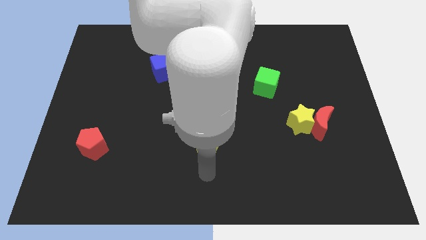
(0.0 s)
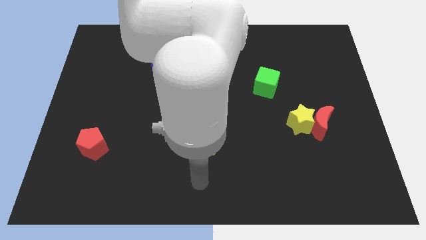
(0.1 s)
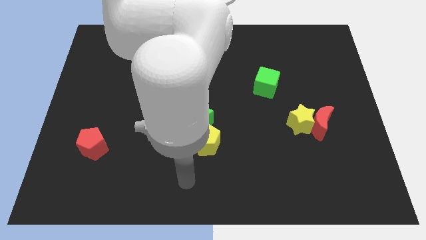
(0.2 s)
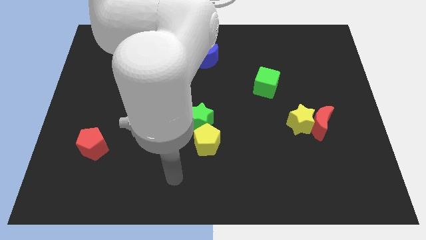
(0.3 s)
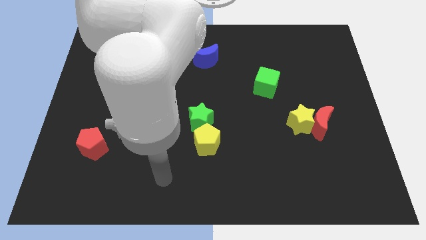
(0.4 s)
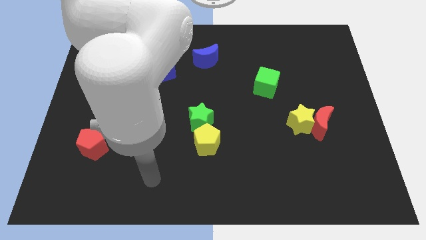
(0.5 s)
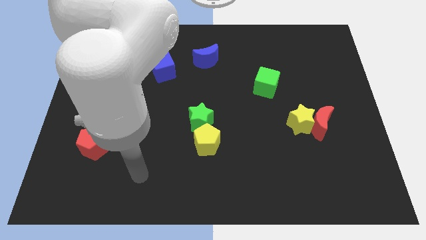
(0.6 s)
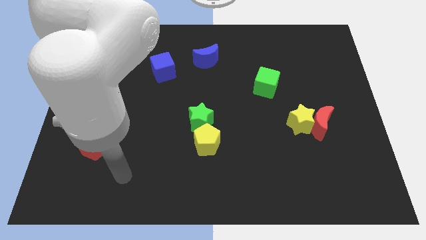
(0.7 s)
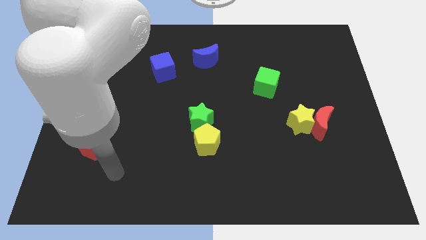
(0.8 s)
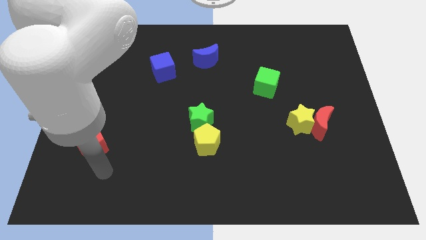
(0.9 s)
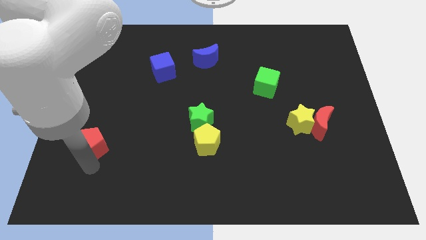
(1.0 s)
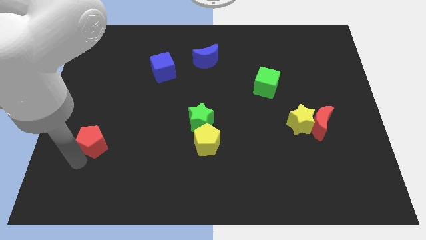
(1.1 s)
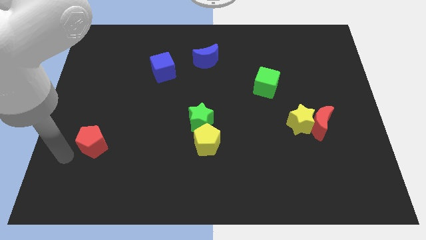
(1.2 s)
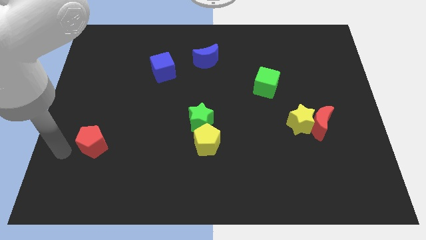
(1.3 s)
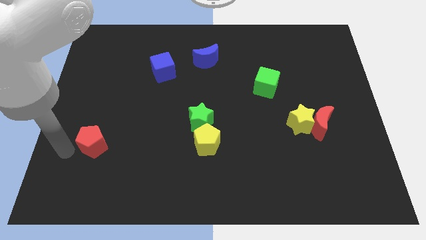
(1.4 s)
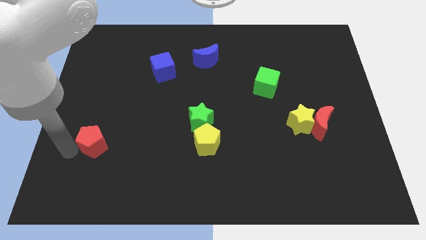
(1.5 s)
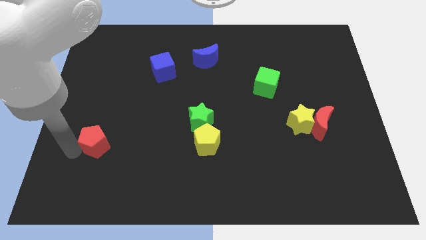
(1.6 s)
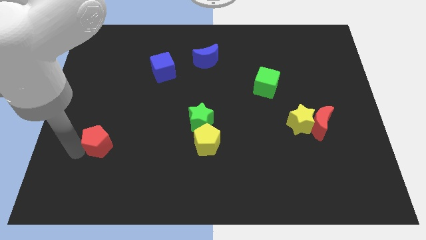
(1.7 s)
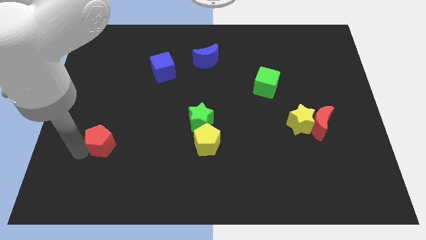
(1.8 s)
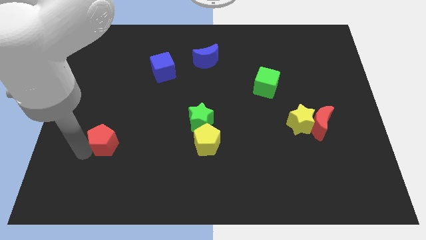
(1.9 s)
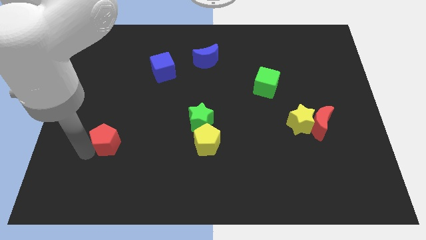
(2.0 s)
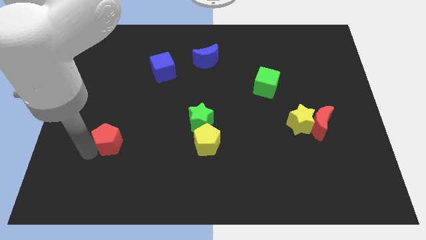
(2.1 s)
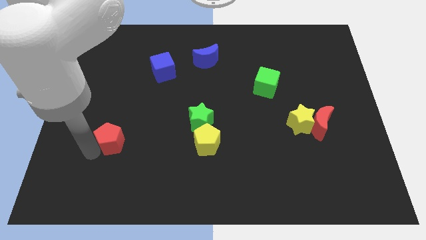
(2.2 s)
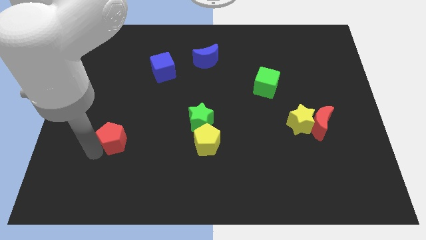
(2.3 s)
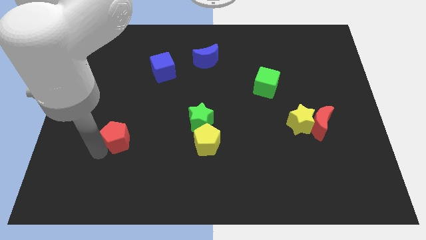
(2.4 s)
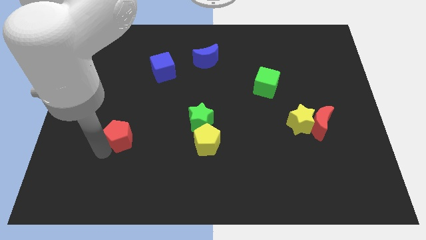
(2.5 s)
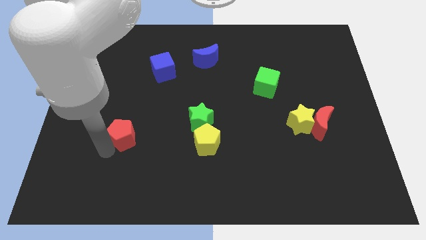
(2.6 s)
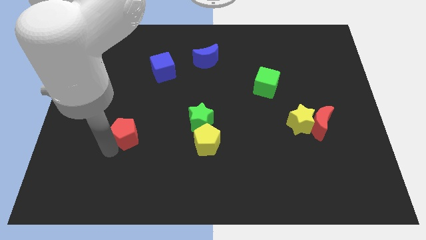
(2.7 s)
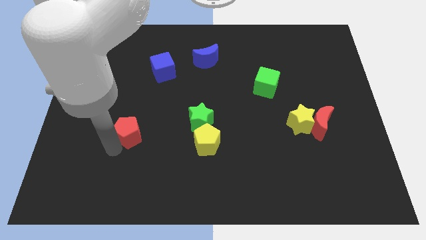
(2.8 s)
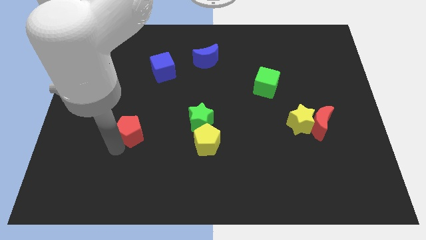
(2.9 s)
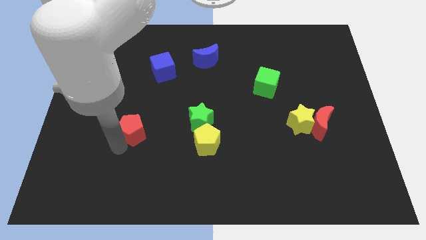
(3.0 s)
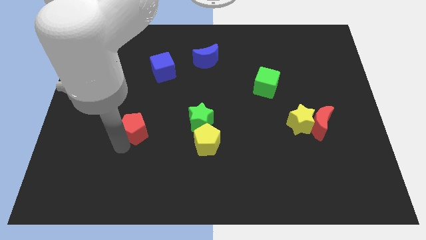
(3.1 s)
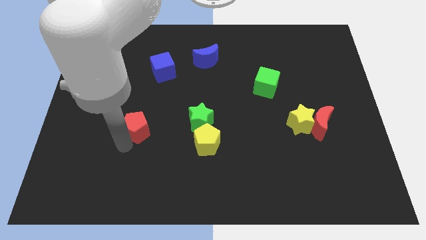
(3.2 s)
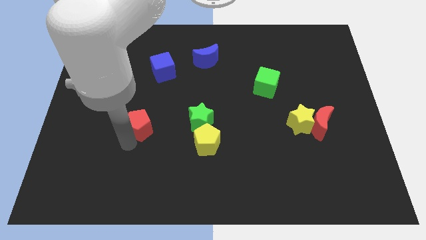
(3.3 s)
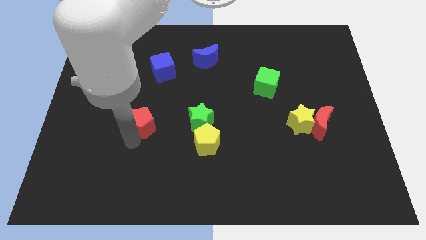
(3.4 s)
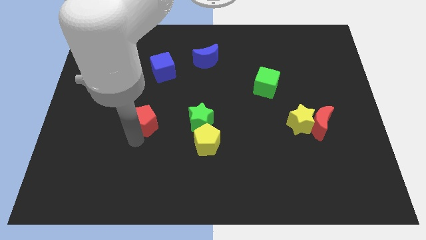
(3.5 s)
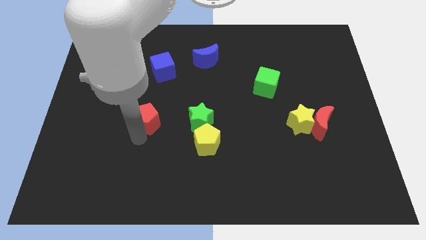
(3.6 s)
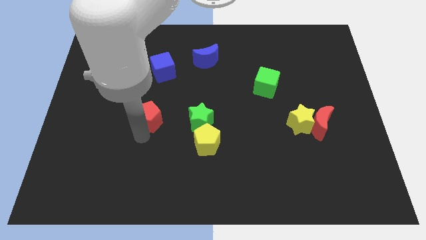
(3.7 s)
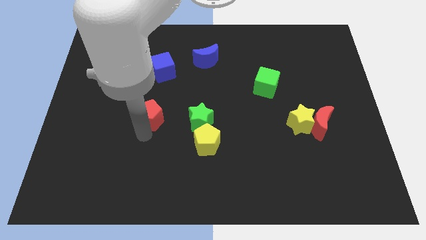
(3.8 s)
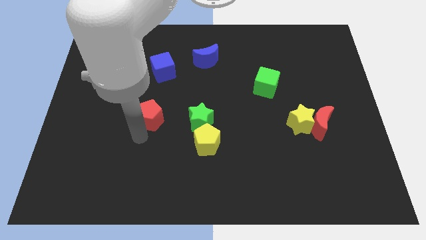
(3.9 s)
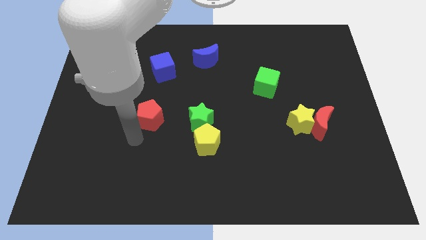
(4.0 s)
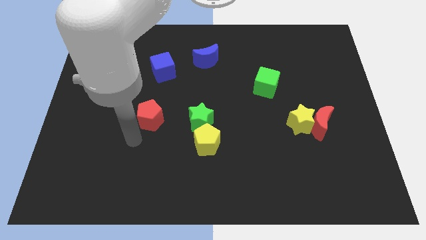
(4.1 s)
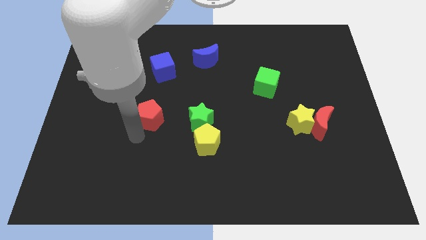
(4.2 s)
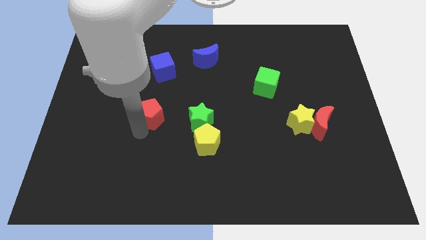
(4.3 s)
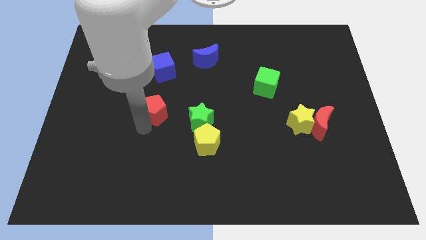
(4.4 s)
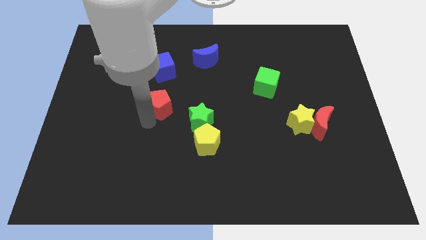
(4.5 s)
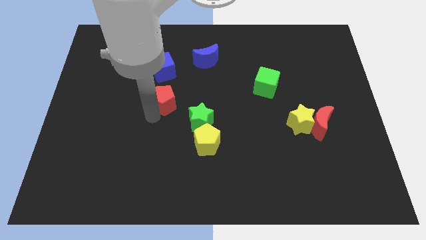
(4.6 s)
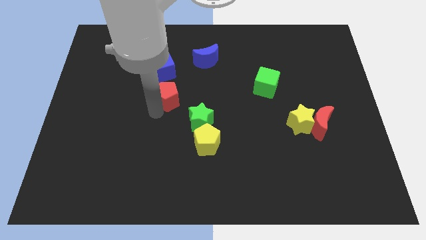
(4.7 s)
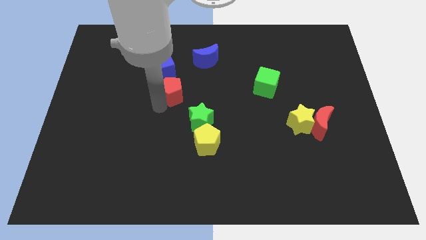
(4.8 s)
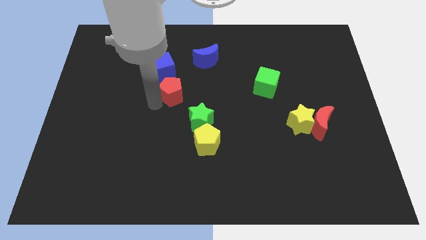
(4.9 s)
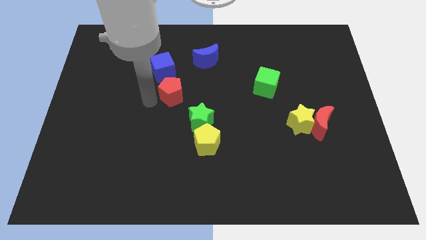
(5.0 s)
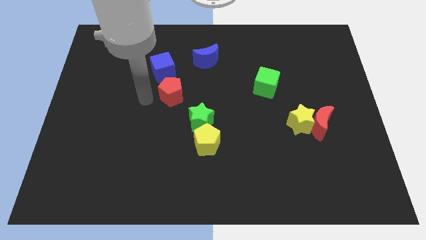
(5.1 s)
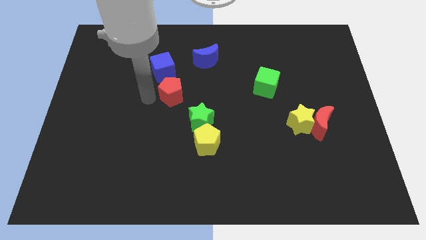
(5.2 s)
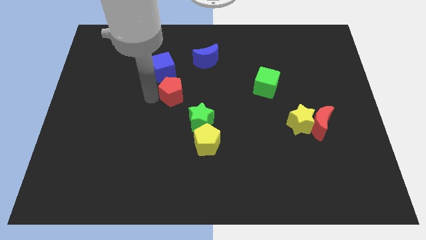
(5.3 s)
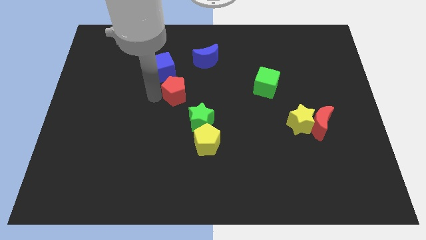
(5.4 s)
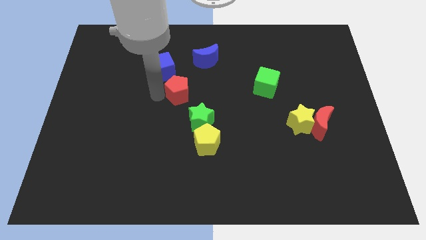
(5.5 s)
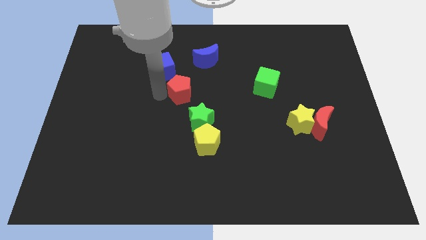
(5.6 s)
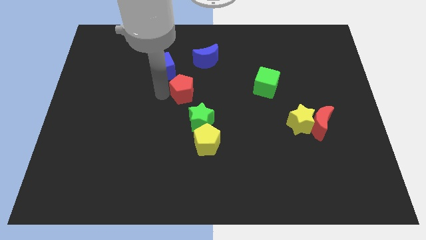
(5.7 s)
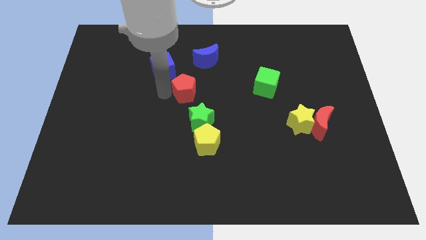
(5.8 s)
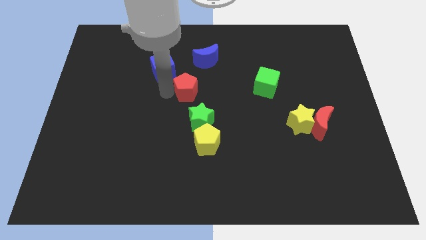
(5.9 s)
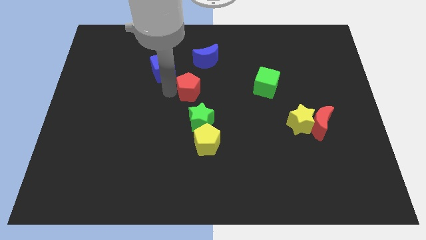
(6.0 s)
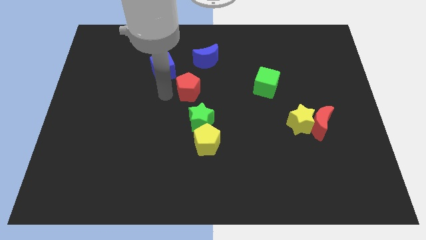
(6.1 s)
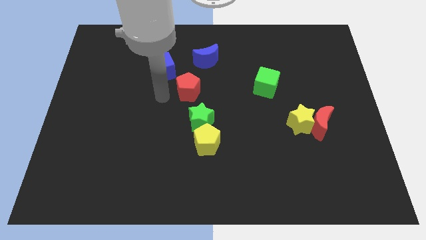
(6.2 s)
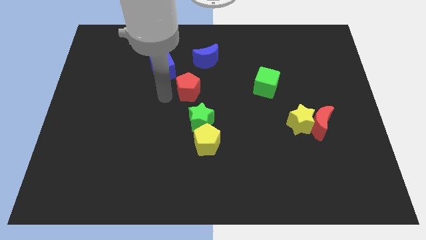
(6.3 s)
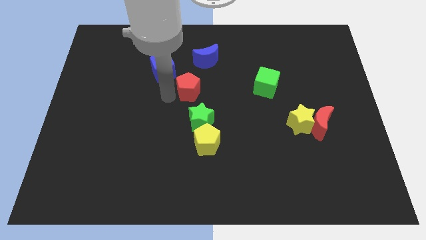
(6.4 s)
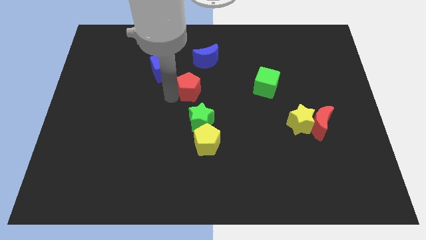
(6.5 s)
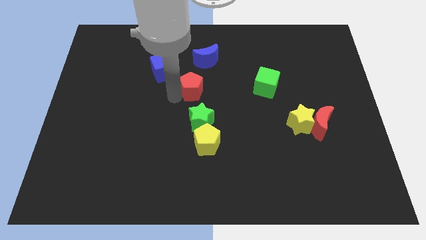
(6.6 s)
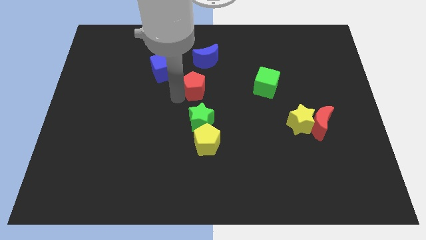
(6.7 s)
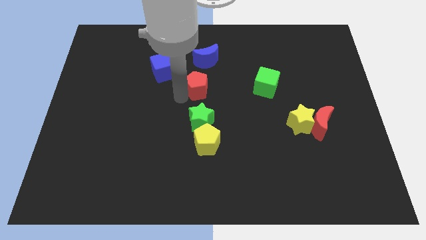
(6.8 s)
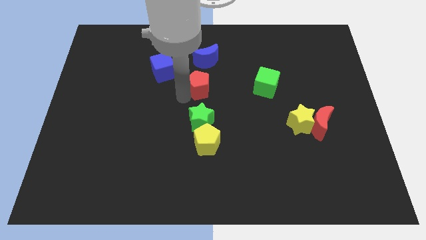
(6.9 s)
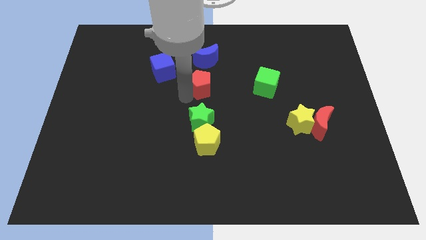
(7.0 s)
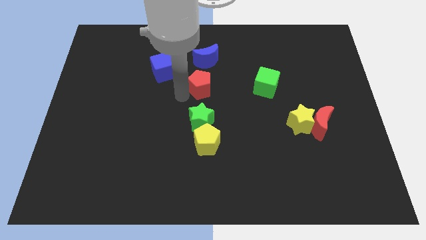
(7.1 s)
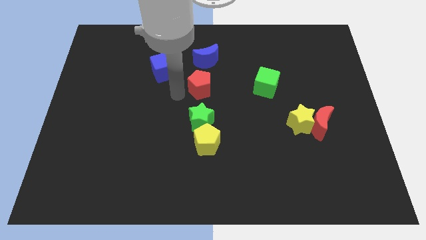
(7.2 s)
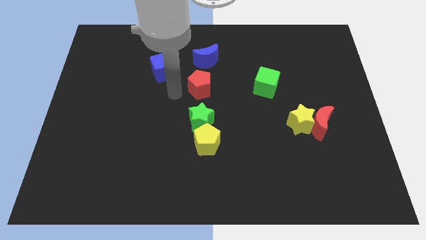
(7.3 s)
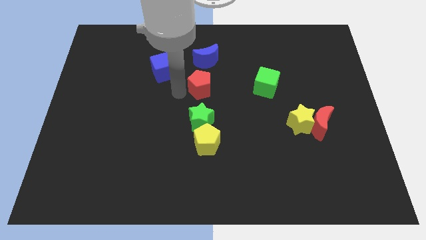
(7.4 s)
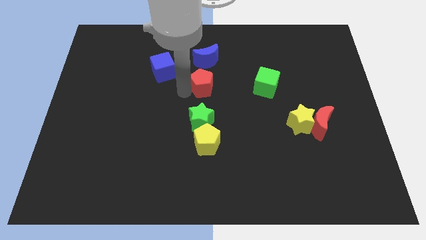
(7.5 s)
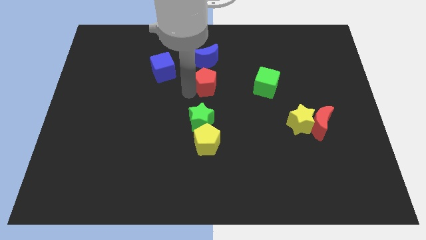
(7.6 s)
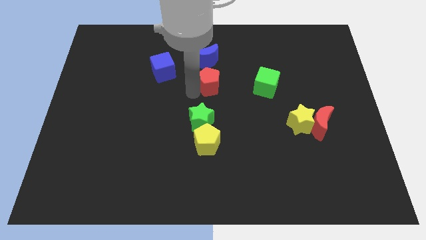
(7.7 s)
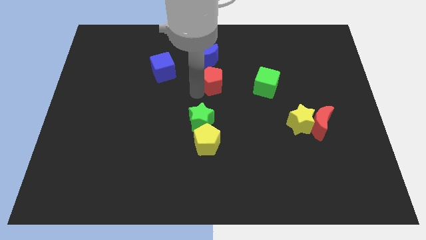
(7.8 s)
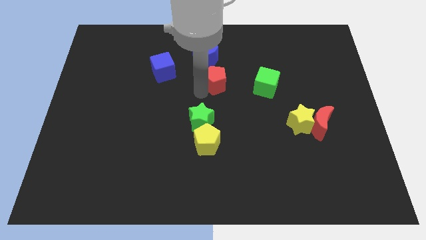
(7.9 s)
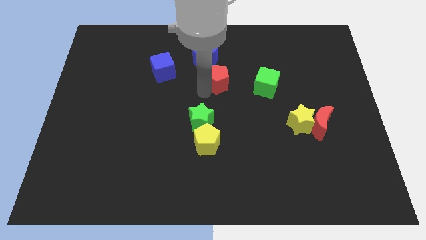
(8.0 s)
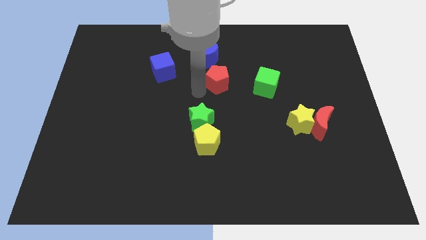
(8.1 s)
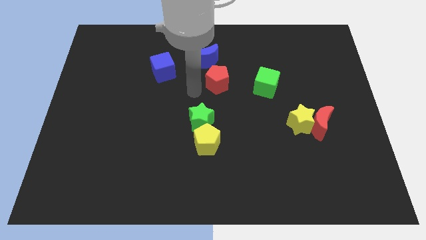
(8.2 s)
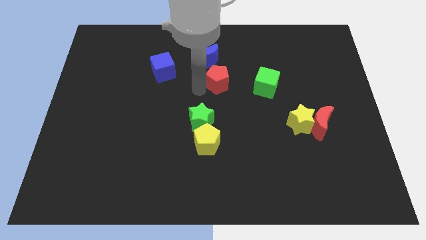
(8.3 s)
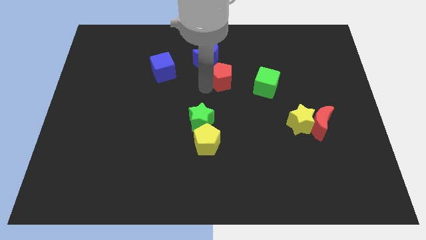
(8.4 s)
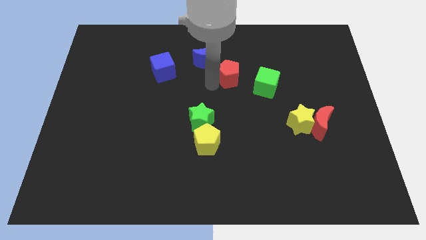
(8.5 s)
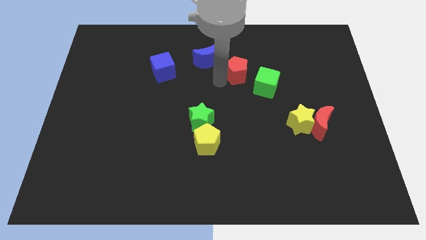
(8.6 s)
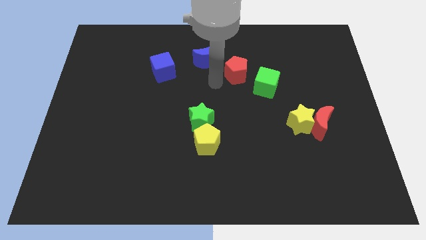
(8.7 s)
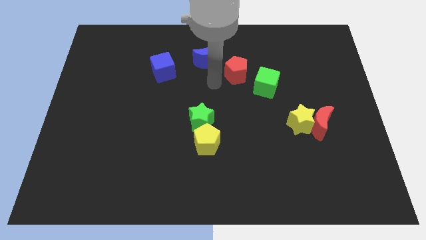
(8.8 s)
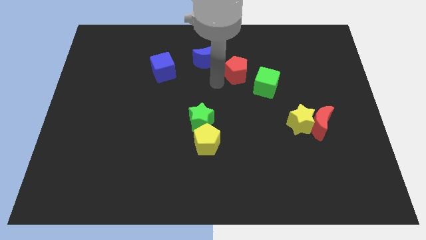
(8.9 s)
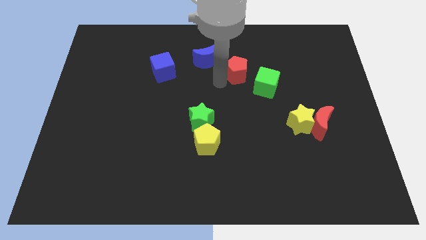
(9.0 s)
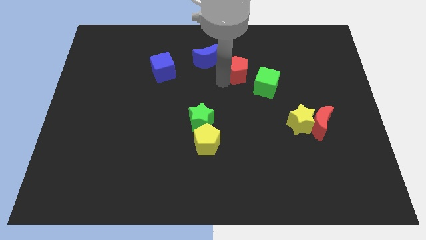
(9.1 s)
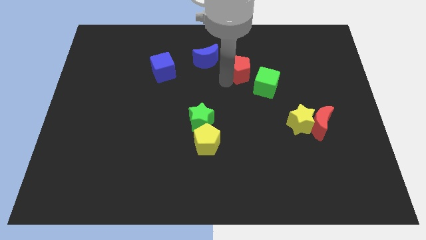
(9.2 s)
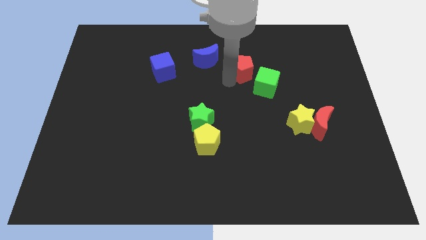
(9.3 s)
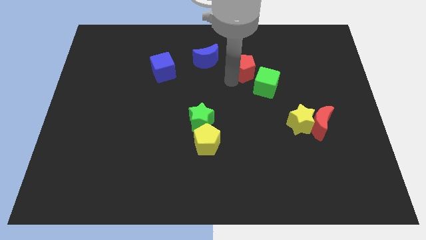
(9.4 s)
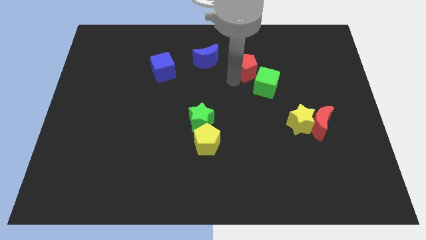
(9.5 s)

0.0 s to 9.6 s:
slide the red pentagon above the green cube
